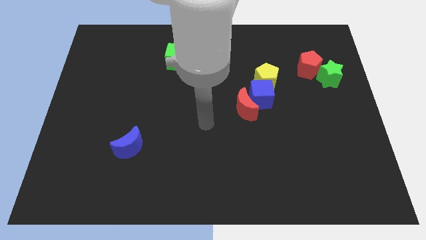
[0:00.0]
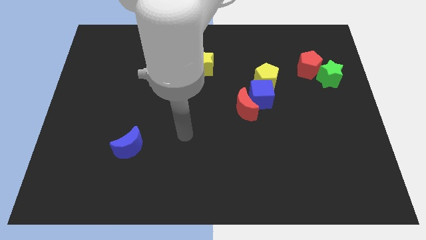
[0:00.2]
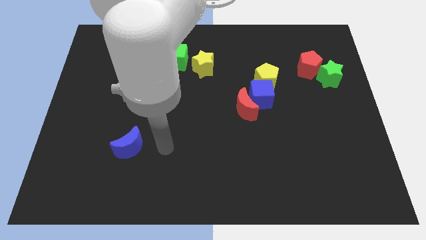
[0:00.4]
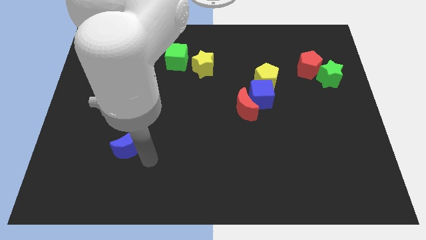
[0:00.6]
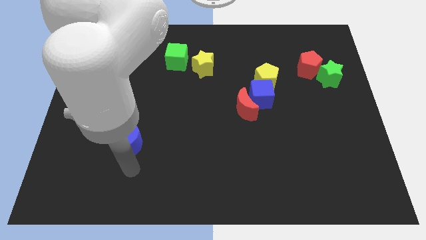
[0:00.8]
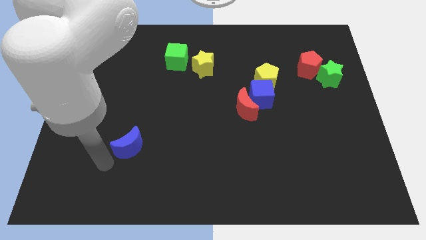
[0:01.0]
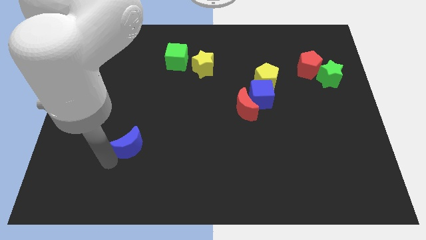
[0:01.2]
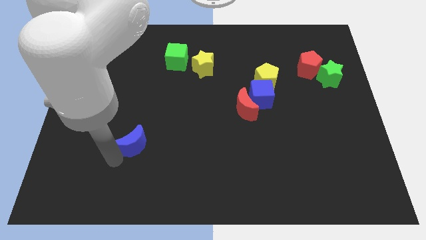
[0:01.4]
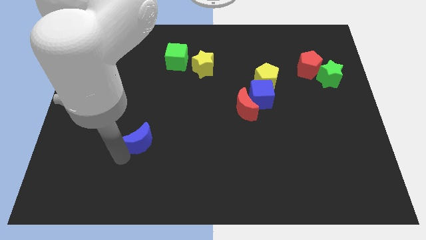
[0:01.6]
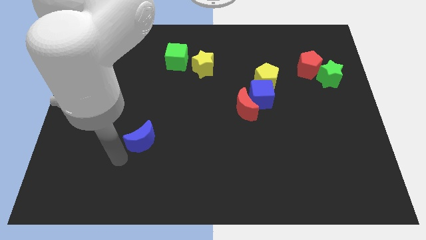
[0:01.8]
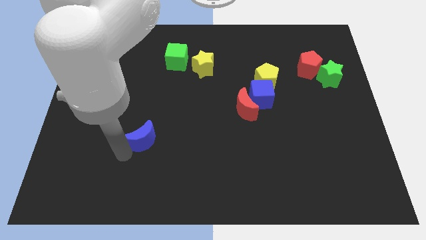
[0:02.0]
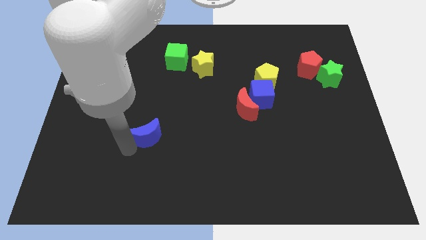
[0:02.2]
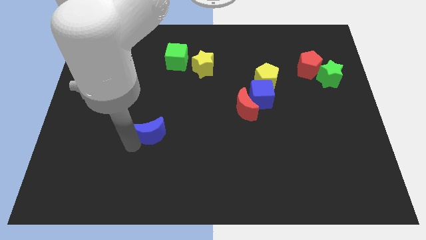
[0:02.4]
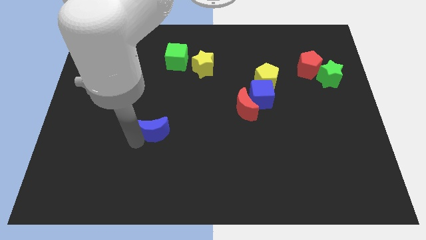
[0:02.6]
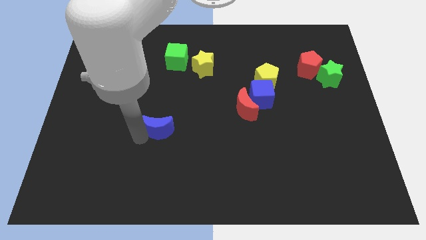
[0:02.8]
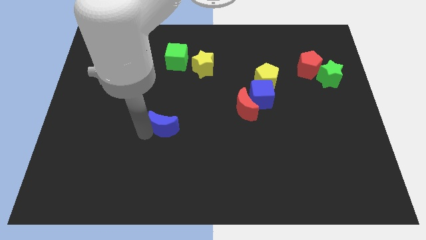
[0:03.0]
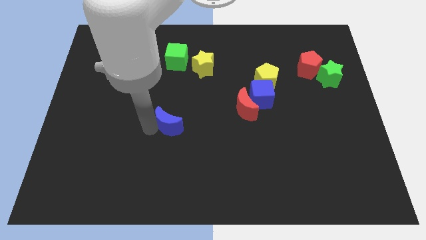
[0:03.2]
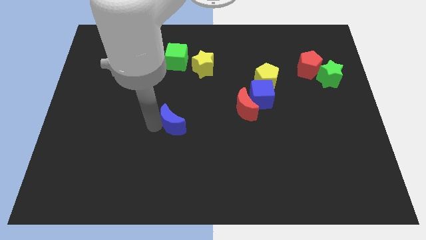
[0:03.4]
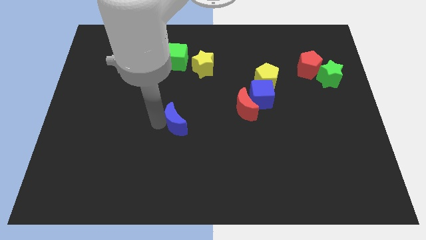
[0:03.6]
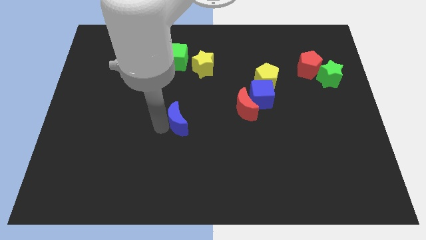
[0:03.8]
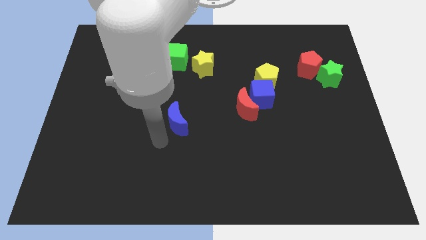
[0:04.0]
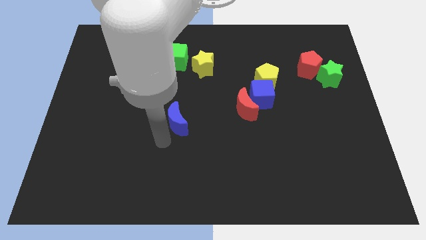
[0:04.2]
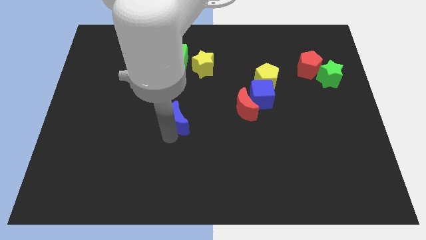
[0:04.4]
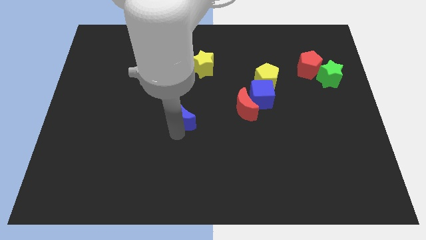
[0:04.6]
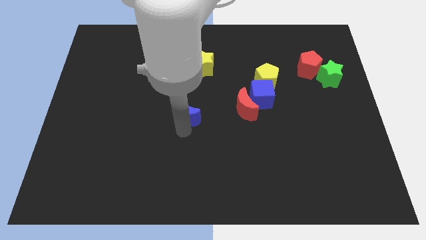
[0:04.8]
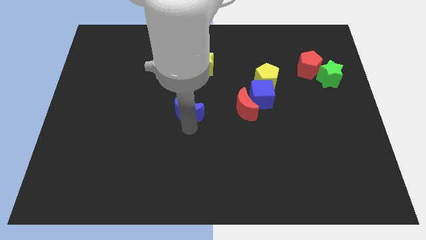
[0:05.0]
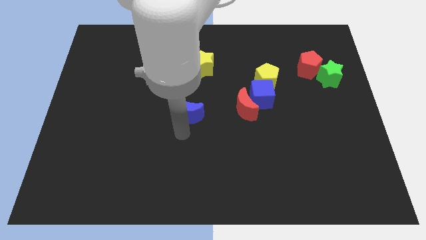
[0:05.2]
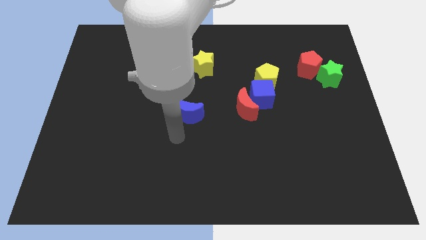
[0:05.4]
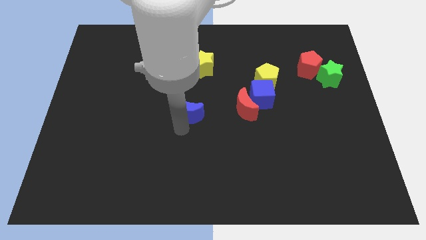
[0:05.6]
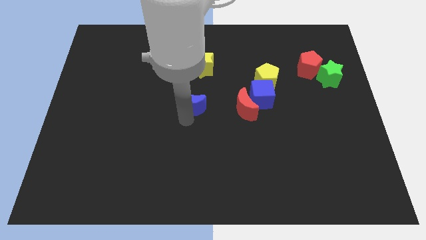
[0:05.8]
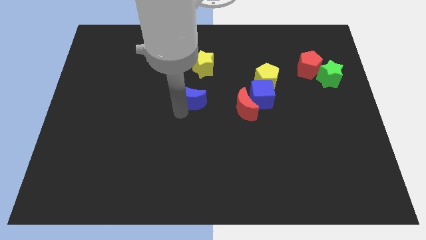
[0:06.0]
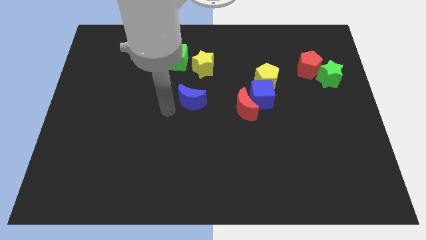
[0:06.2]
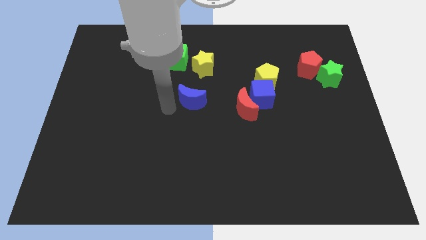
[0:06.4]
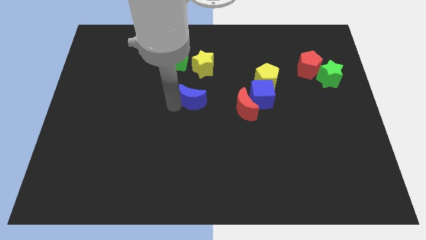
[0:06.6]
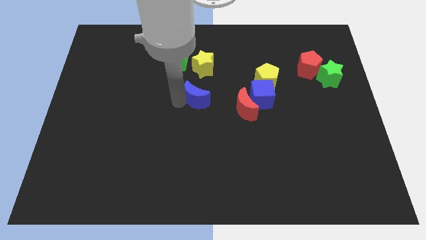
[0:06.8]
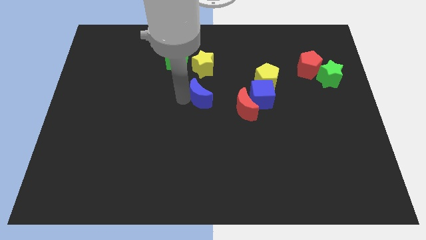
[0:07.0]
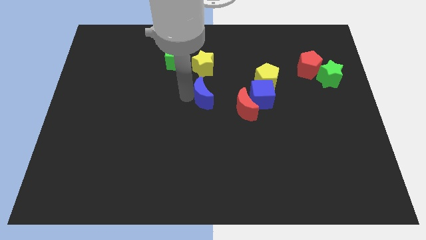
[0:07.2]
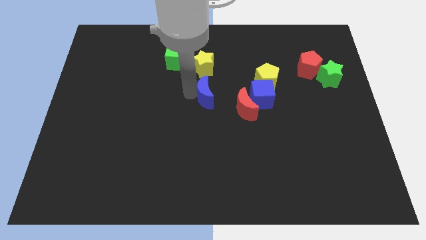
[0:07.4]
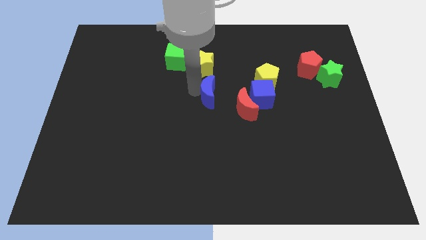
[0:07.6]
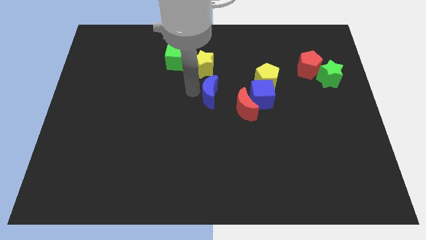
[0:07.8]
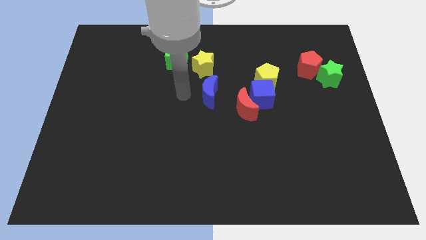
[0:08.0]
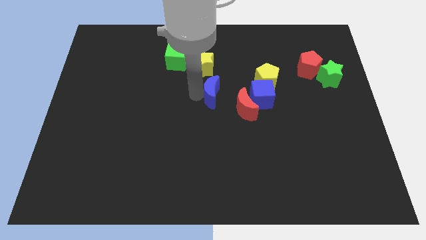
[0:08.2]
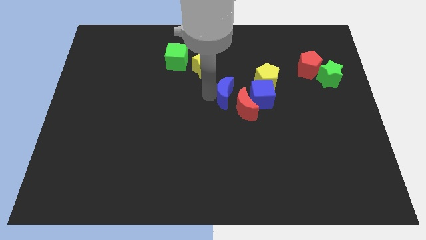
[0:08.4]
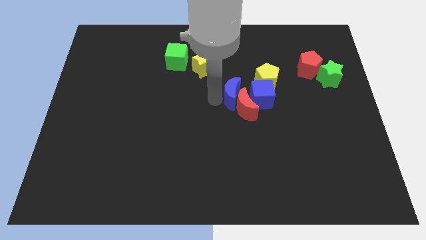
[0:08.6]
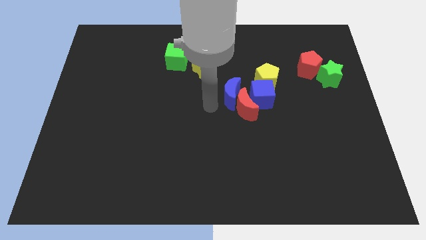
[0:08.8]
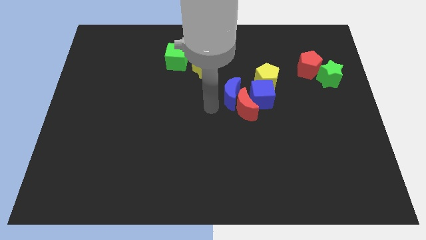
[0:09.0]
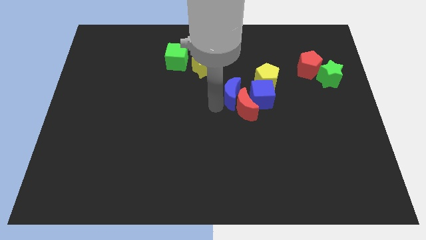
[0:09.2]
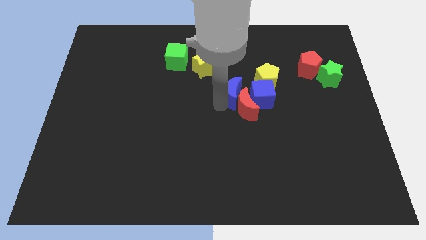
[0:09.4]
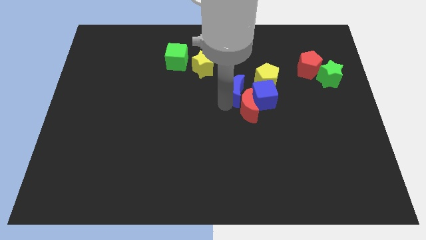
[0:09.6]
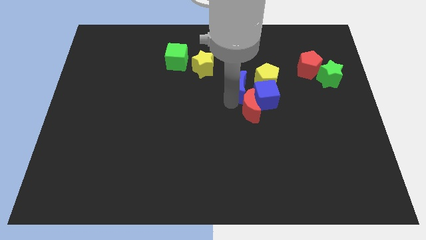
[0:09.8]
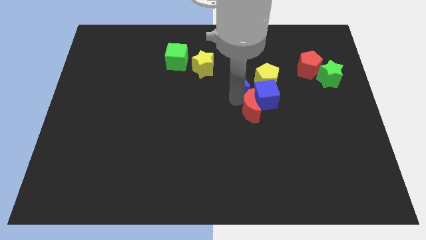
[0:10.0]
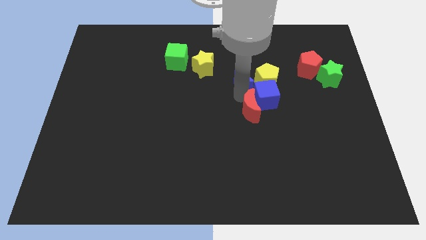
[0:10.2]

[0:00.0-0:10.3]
slide the blue moon next to the yellow pentagon

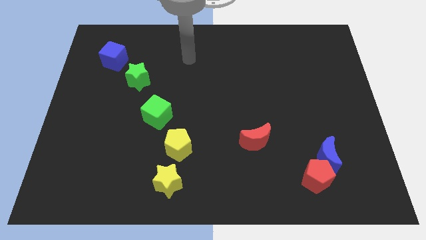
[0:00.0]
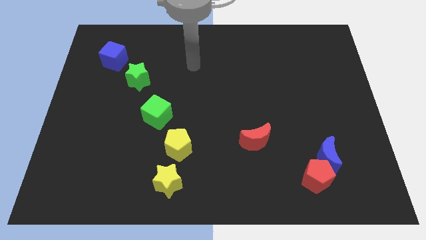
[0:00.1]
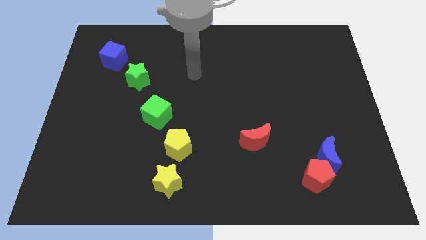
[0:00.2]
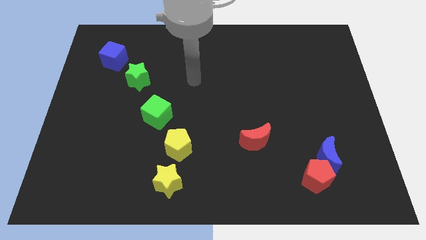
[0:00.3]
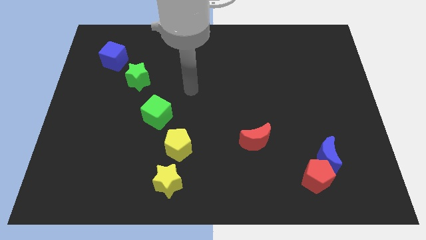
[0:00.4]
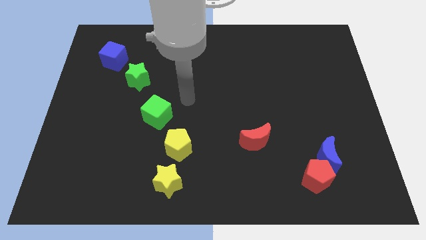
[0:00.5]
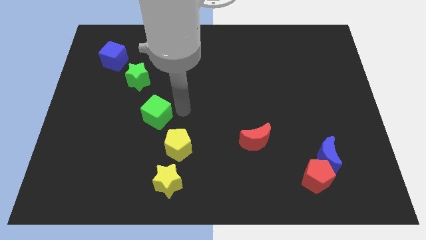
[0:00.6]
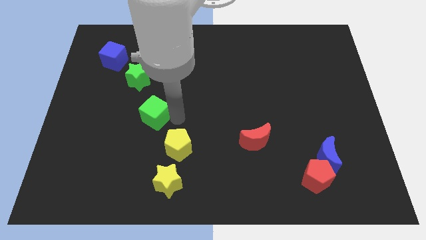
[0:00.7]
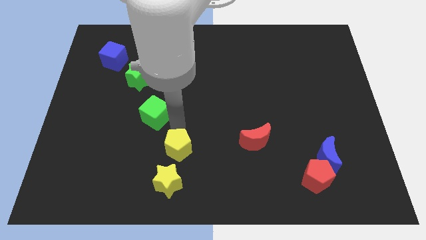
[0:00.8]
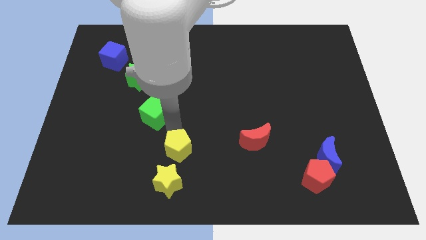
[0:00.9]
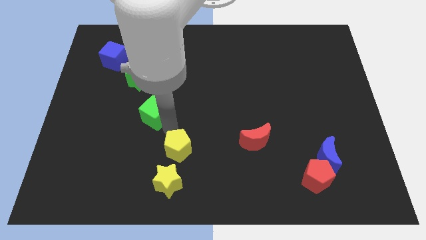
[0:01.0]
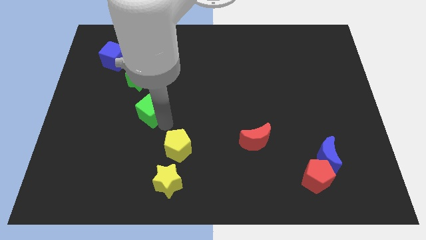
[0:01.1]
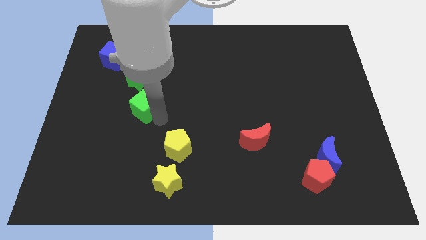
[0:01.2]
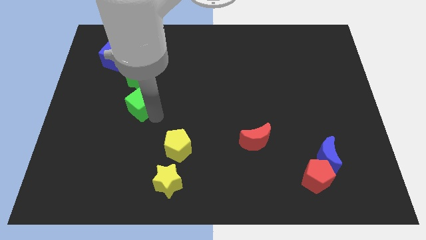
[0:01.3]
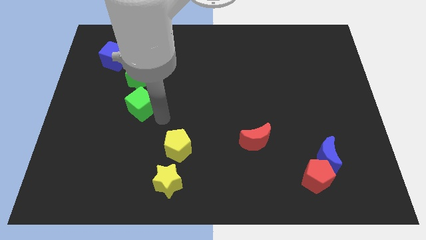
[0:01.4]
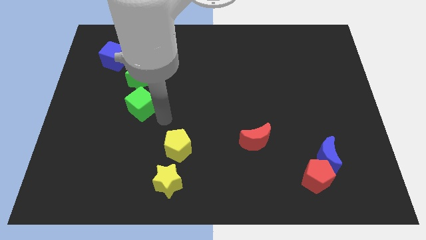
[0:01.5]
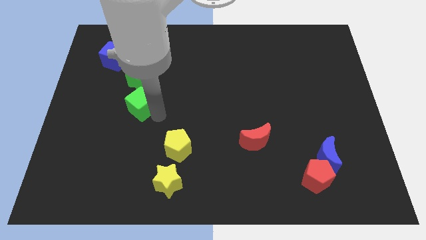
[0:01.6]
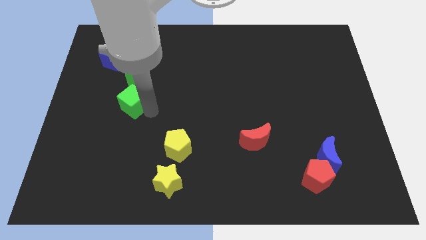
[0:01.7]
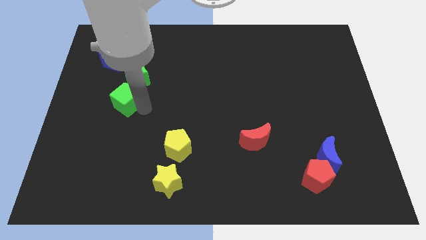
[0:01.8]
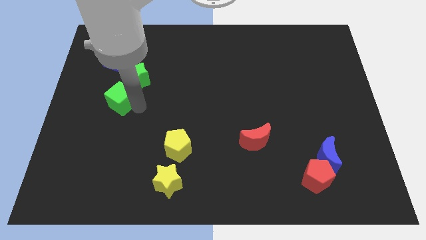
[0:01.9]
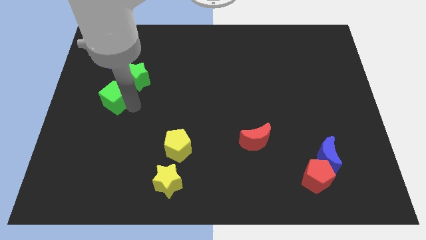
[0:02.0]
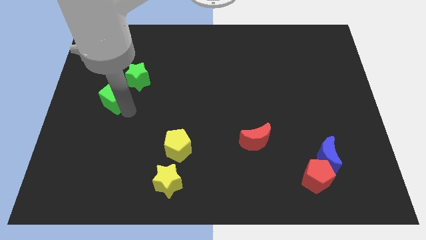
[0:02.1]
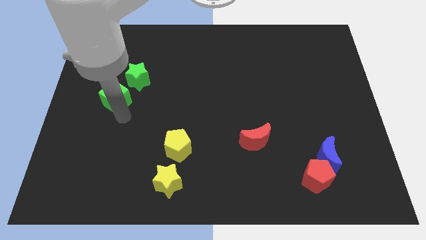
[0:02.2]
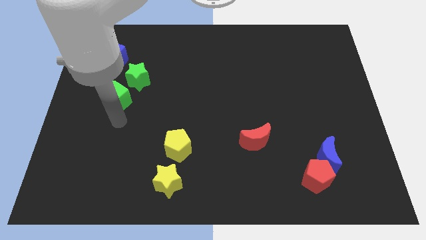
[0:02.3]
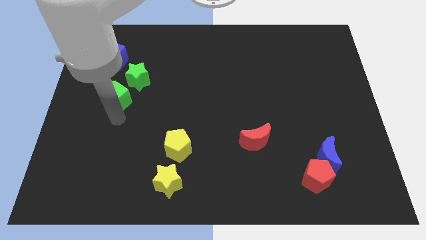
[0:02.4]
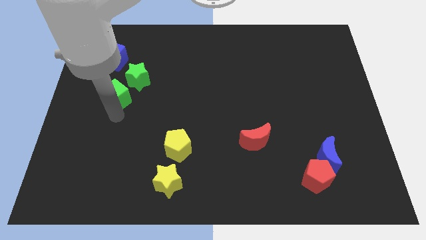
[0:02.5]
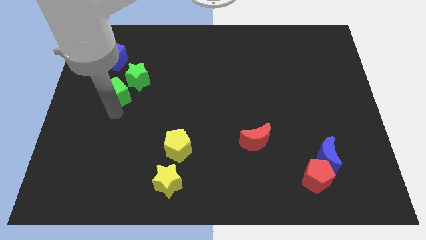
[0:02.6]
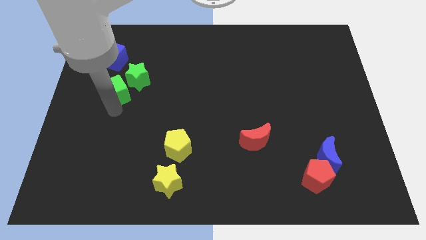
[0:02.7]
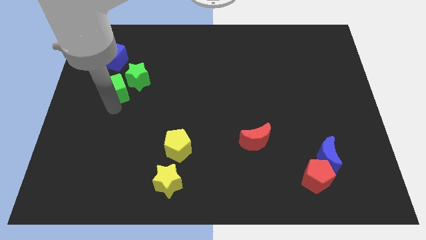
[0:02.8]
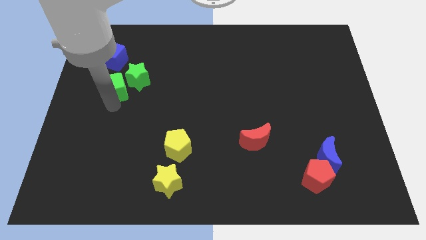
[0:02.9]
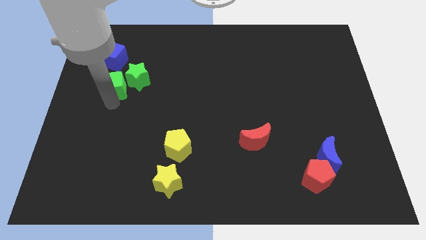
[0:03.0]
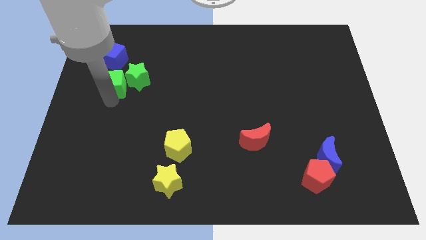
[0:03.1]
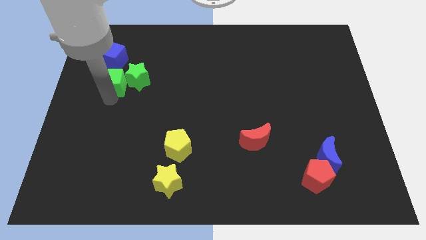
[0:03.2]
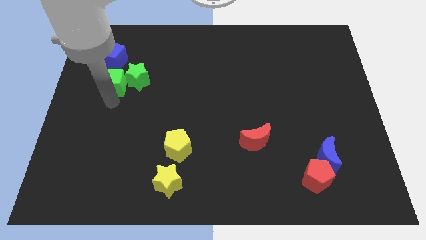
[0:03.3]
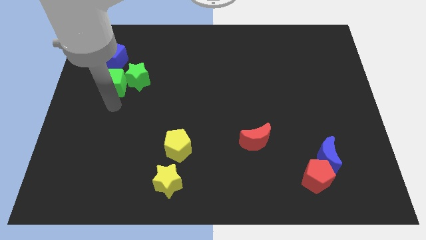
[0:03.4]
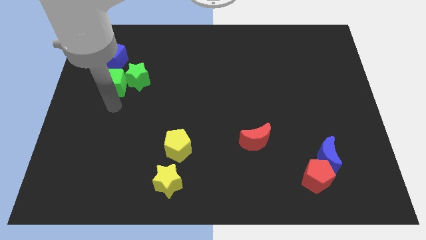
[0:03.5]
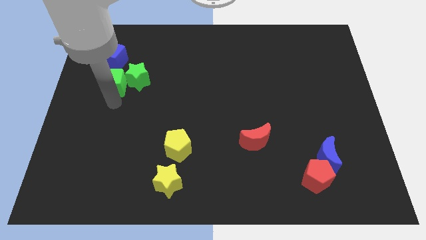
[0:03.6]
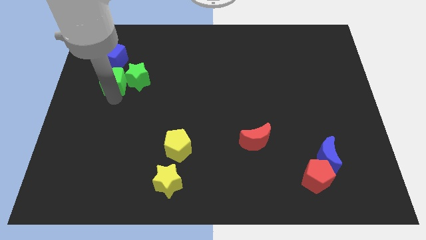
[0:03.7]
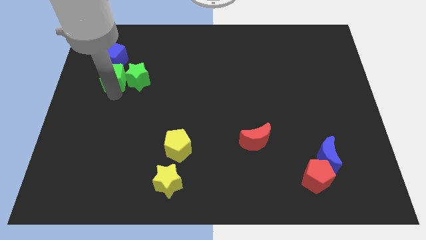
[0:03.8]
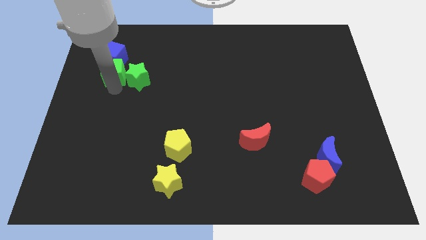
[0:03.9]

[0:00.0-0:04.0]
move the green cube to the blue cube
